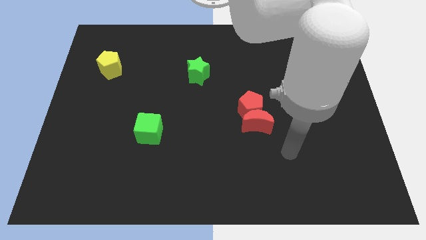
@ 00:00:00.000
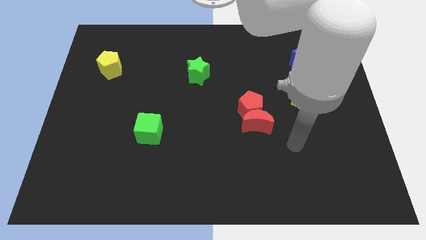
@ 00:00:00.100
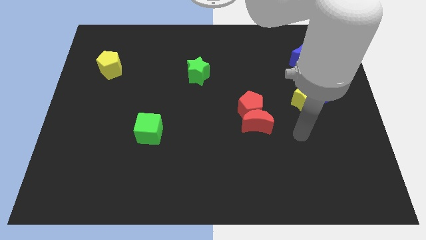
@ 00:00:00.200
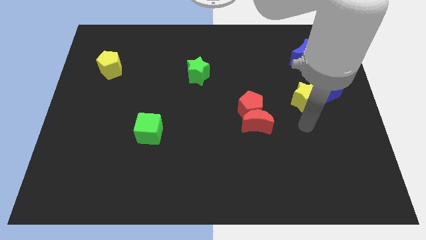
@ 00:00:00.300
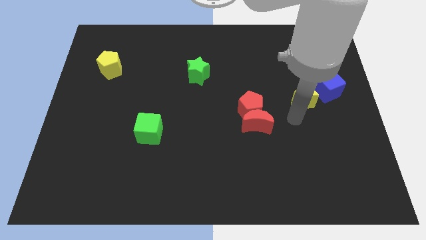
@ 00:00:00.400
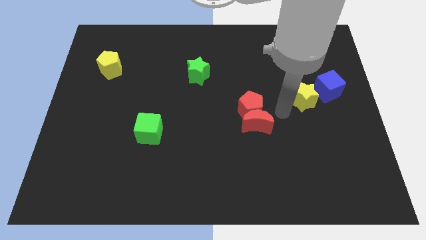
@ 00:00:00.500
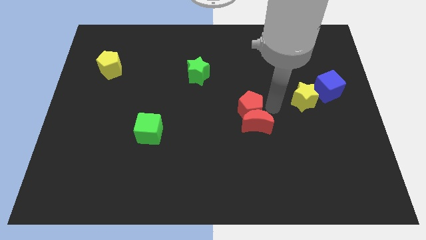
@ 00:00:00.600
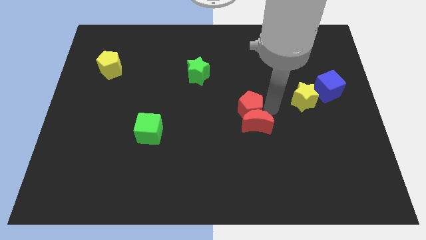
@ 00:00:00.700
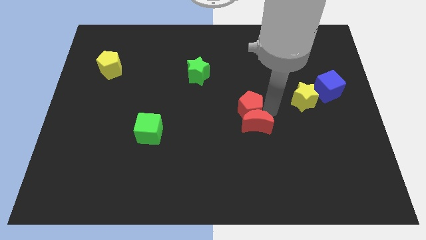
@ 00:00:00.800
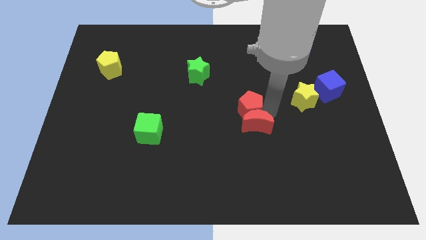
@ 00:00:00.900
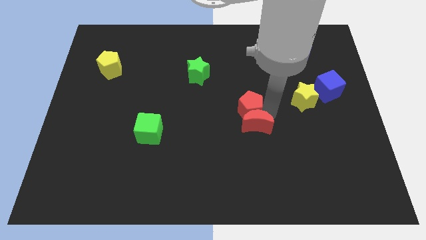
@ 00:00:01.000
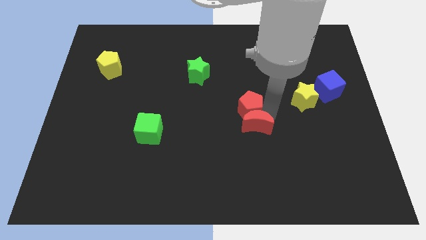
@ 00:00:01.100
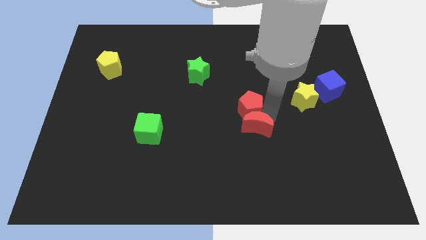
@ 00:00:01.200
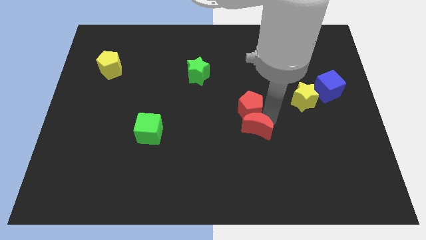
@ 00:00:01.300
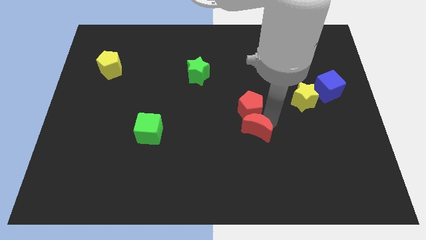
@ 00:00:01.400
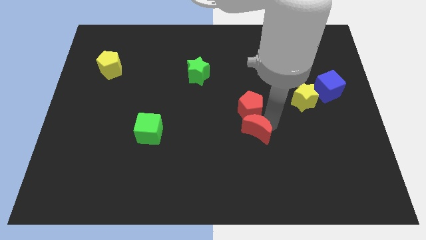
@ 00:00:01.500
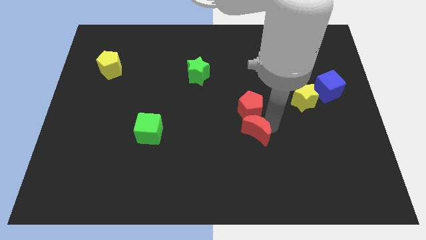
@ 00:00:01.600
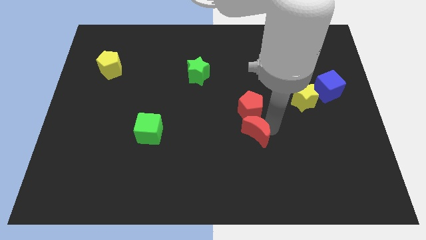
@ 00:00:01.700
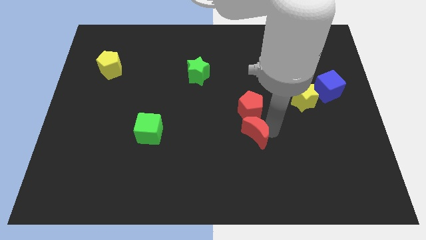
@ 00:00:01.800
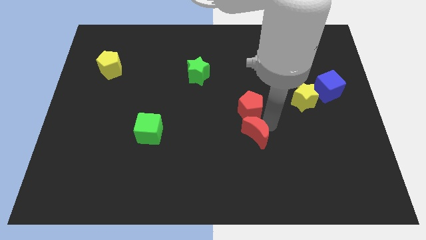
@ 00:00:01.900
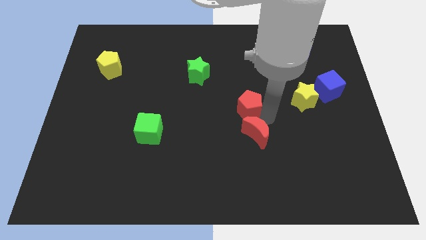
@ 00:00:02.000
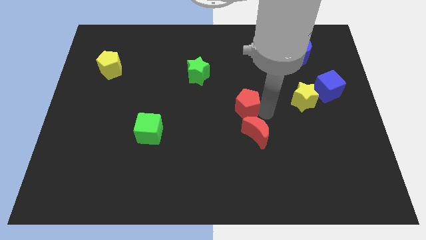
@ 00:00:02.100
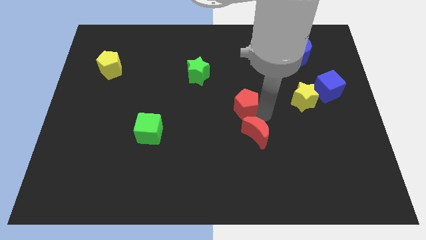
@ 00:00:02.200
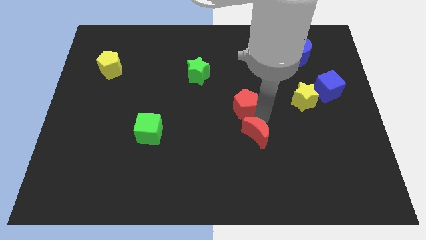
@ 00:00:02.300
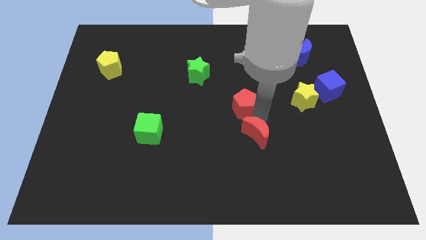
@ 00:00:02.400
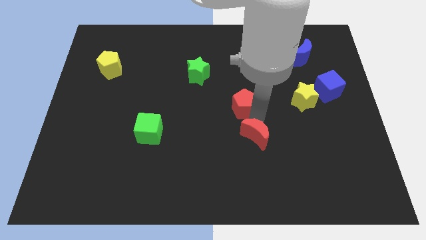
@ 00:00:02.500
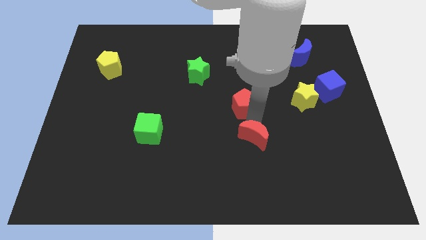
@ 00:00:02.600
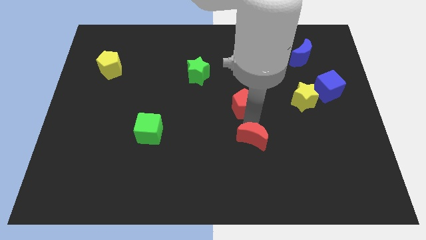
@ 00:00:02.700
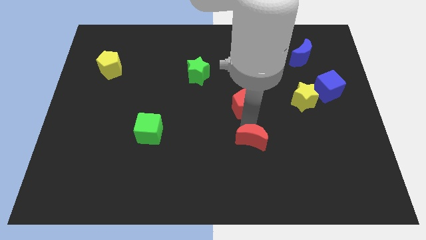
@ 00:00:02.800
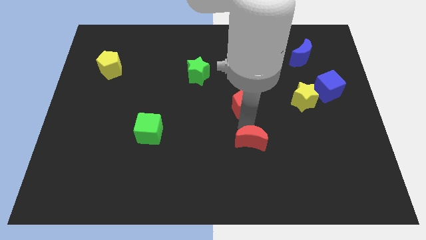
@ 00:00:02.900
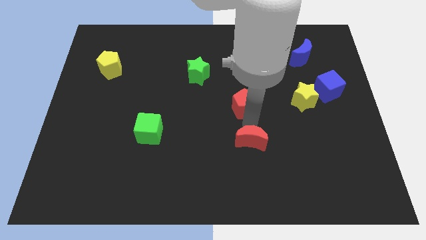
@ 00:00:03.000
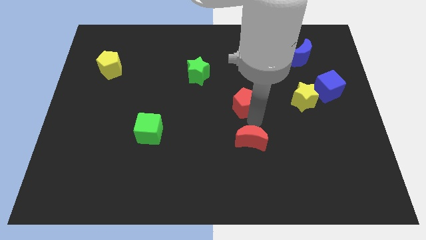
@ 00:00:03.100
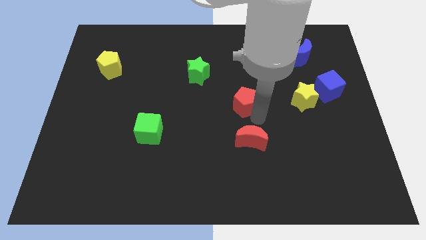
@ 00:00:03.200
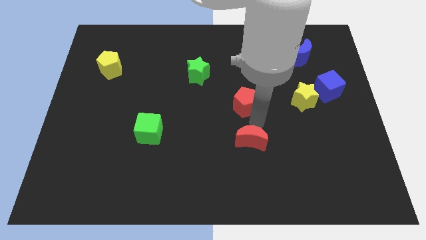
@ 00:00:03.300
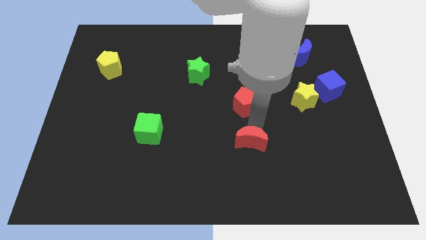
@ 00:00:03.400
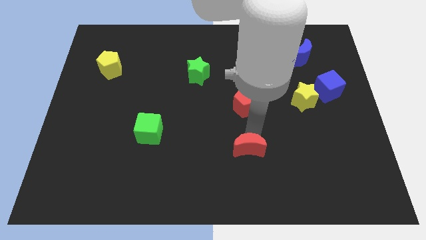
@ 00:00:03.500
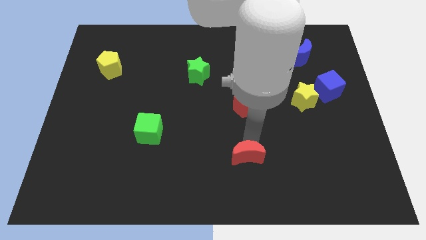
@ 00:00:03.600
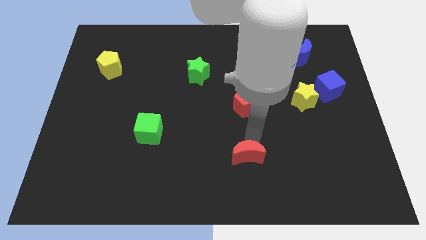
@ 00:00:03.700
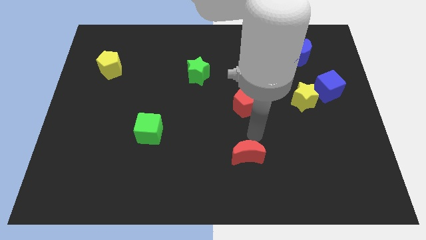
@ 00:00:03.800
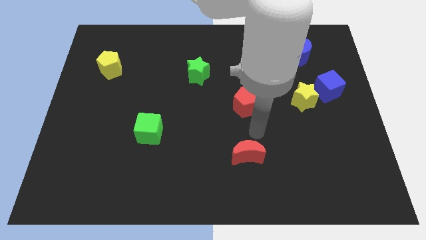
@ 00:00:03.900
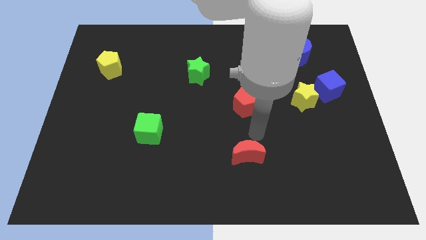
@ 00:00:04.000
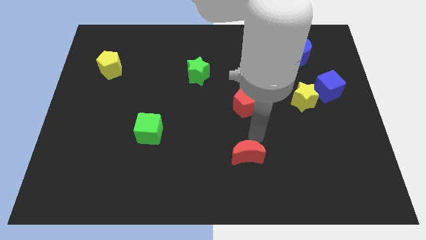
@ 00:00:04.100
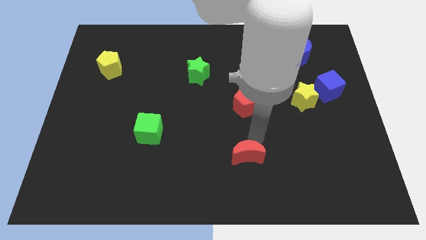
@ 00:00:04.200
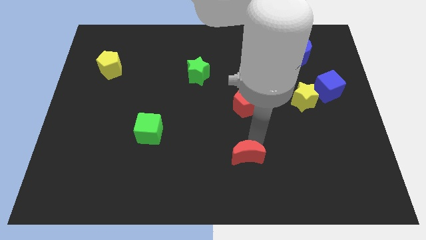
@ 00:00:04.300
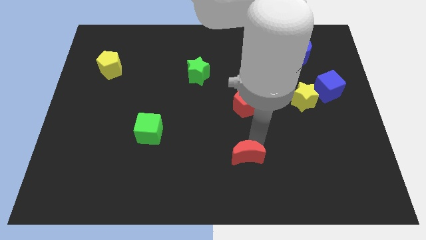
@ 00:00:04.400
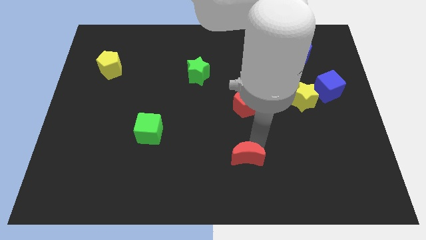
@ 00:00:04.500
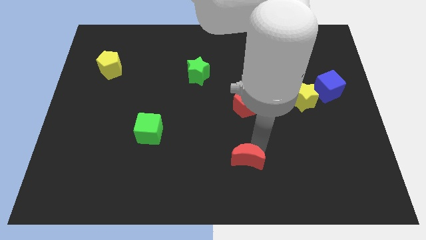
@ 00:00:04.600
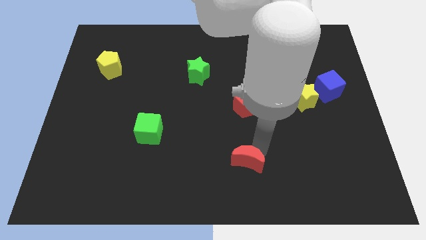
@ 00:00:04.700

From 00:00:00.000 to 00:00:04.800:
push the red moon to the bottom side

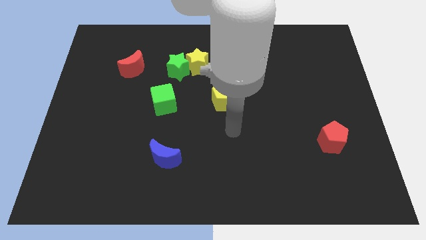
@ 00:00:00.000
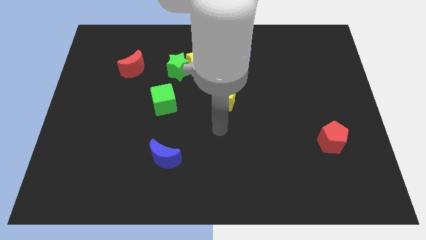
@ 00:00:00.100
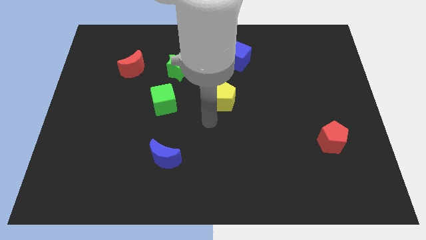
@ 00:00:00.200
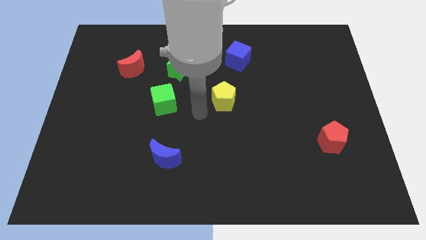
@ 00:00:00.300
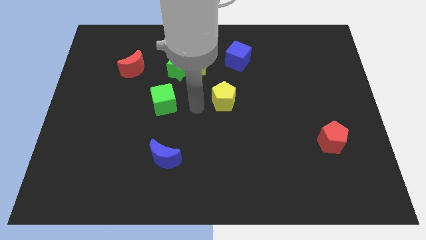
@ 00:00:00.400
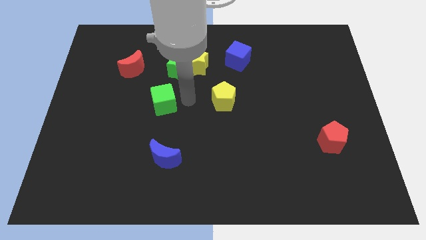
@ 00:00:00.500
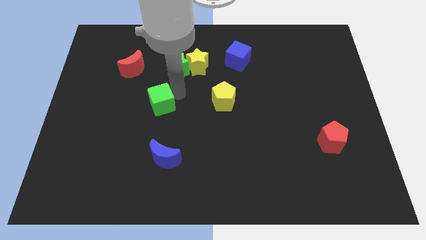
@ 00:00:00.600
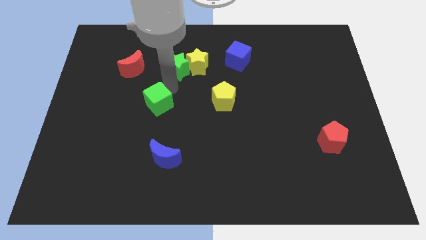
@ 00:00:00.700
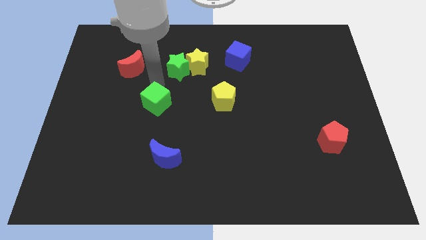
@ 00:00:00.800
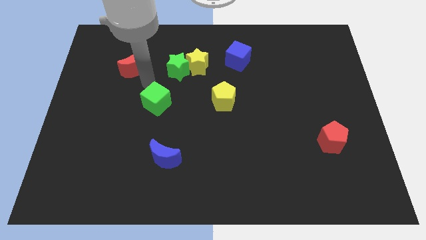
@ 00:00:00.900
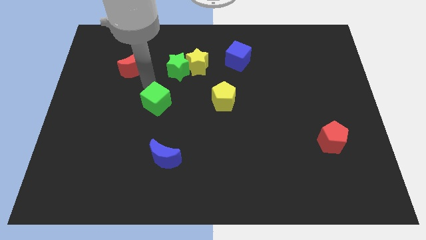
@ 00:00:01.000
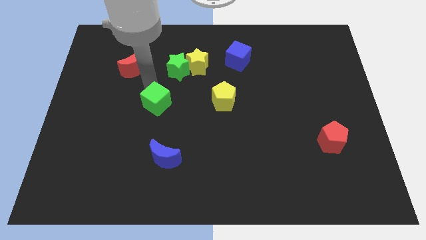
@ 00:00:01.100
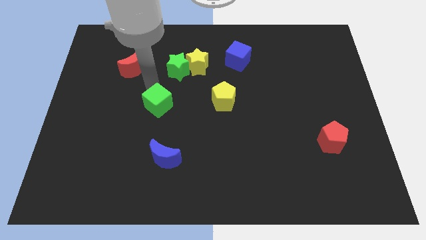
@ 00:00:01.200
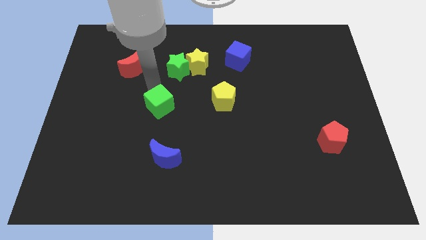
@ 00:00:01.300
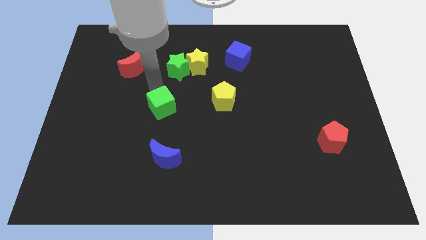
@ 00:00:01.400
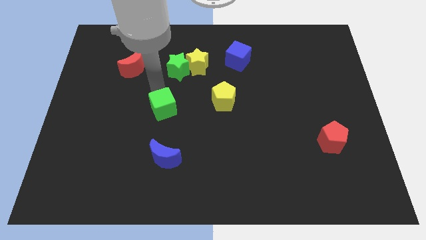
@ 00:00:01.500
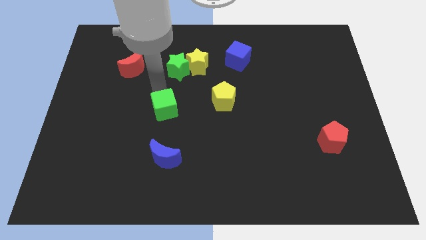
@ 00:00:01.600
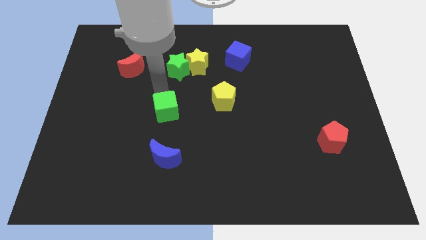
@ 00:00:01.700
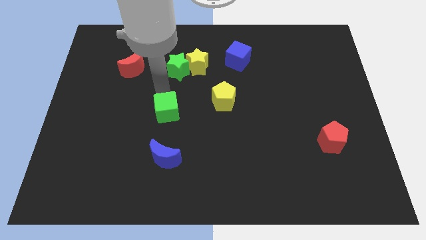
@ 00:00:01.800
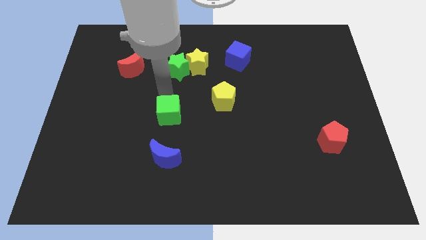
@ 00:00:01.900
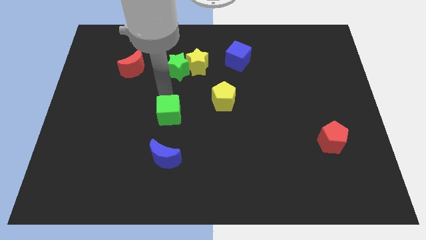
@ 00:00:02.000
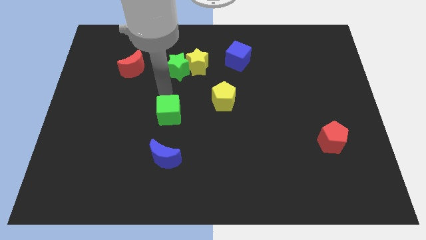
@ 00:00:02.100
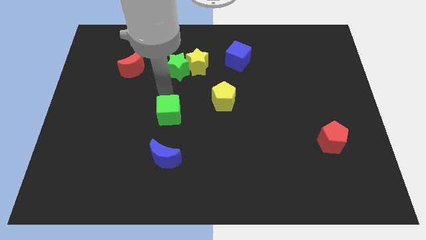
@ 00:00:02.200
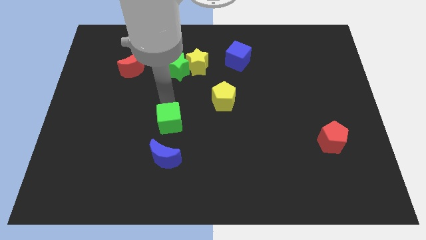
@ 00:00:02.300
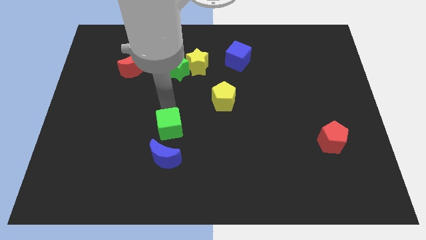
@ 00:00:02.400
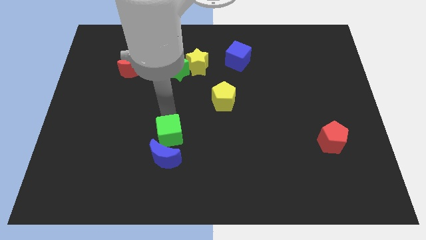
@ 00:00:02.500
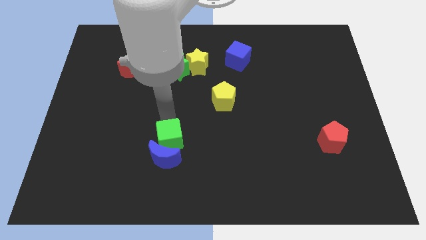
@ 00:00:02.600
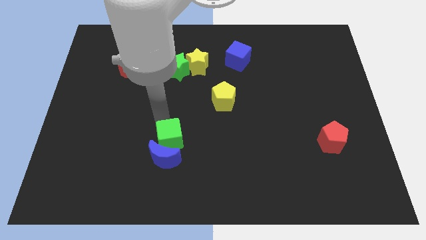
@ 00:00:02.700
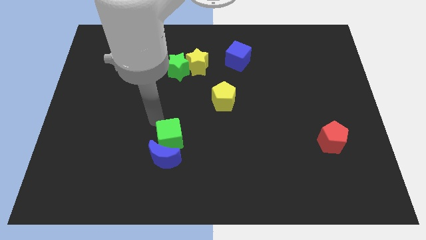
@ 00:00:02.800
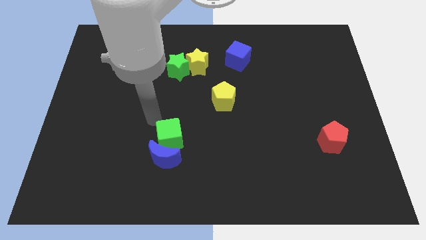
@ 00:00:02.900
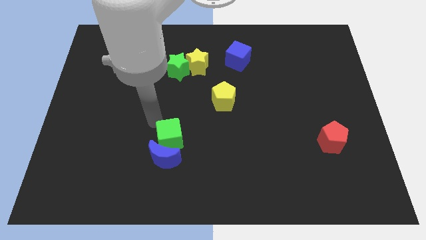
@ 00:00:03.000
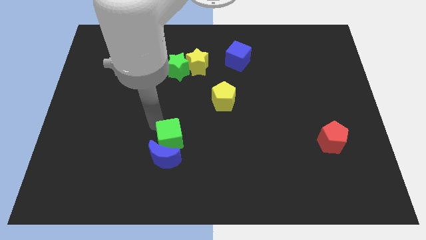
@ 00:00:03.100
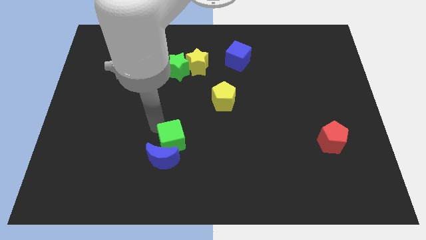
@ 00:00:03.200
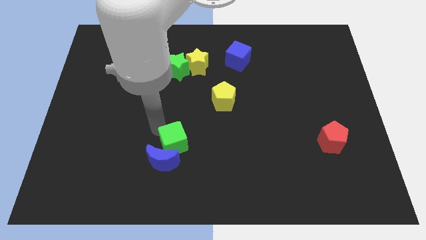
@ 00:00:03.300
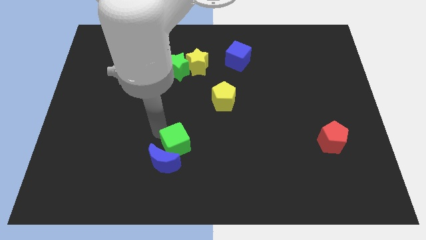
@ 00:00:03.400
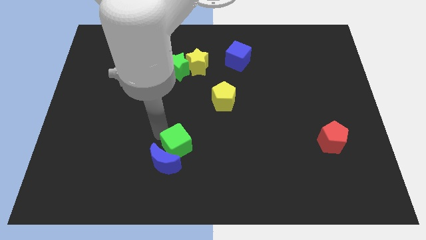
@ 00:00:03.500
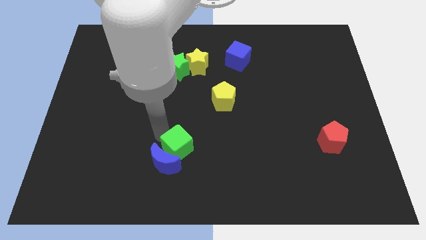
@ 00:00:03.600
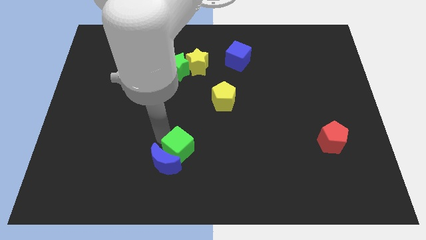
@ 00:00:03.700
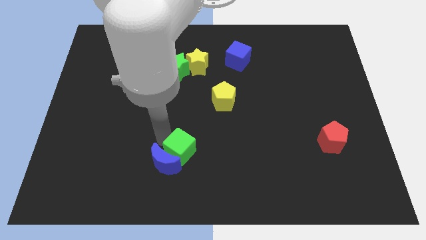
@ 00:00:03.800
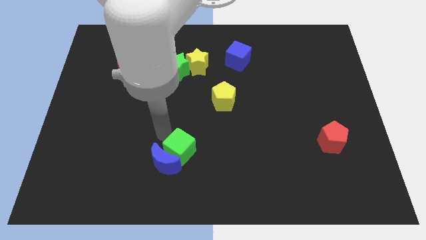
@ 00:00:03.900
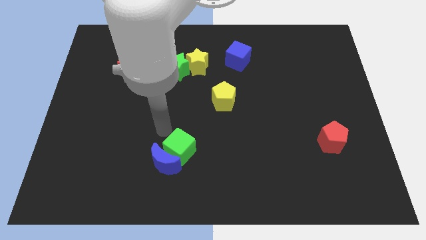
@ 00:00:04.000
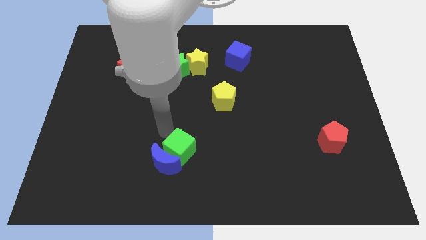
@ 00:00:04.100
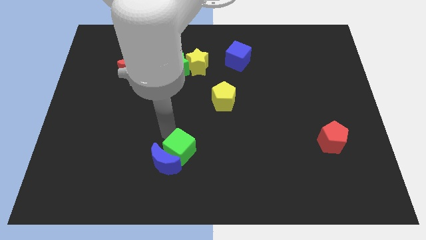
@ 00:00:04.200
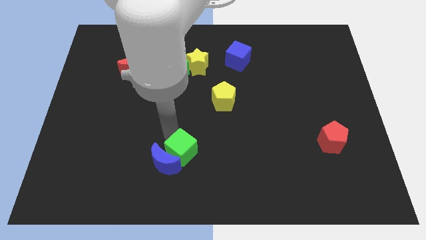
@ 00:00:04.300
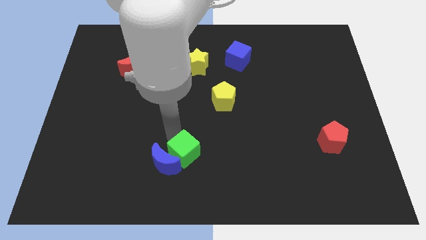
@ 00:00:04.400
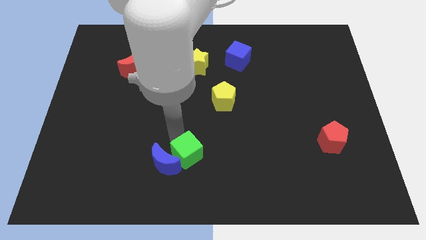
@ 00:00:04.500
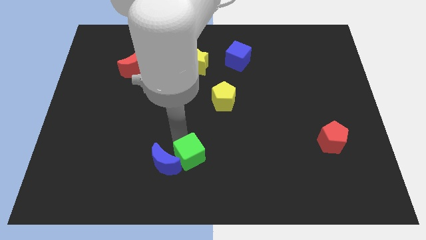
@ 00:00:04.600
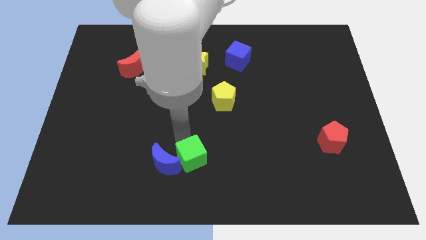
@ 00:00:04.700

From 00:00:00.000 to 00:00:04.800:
slide the green cube to the bottom side
